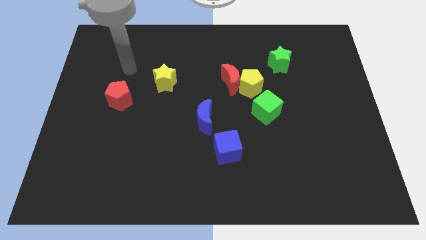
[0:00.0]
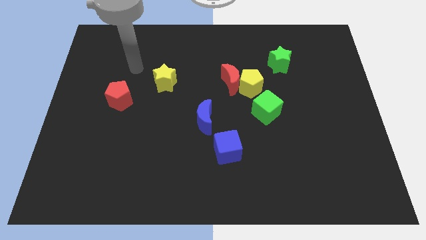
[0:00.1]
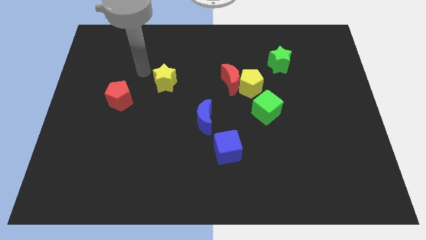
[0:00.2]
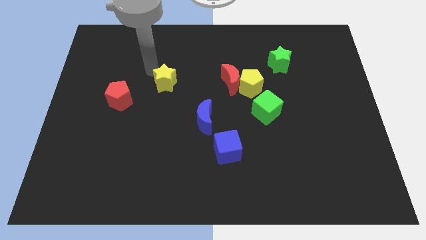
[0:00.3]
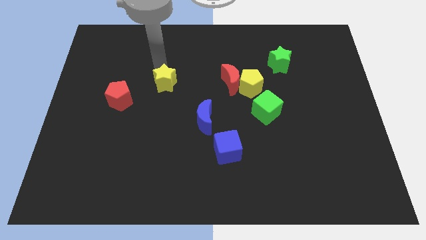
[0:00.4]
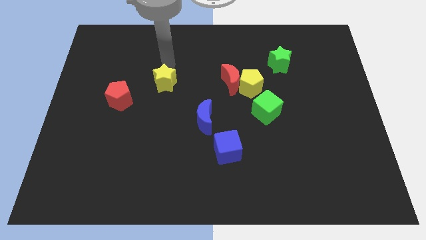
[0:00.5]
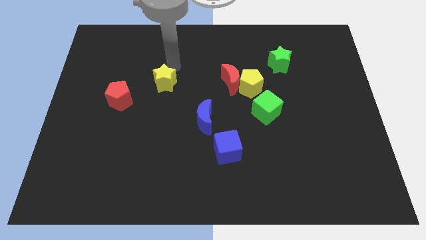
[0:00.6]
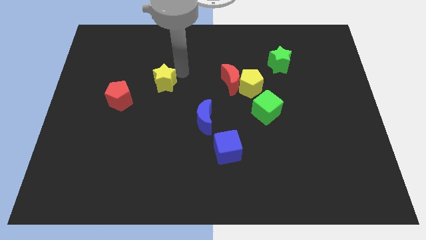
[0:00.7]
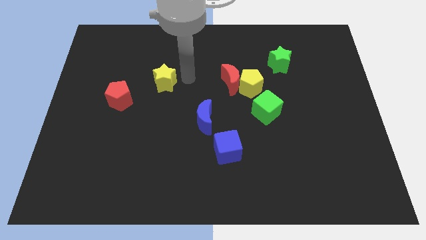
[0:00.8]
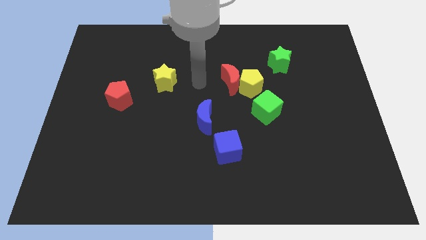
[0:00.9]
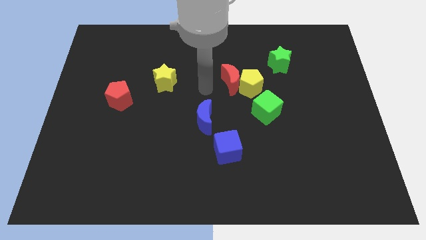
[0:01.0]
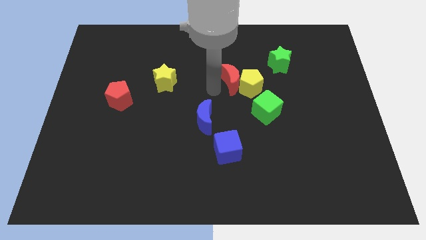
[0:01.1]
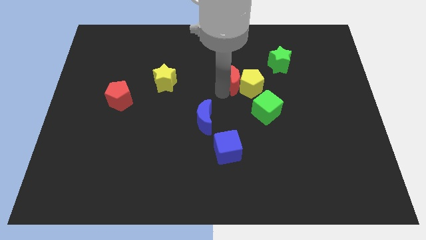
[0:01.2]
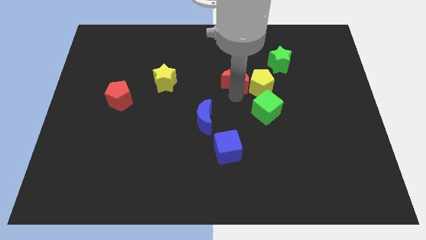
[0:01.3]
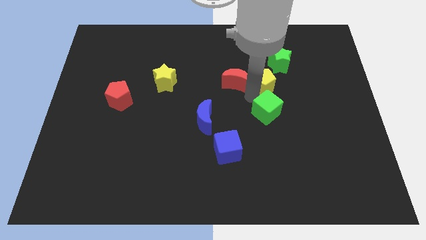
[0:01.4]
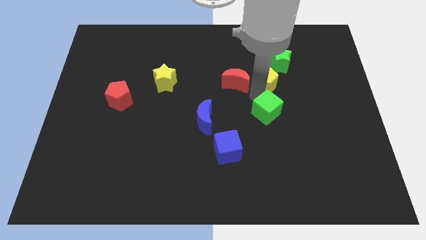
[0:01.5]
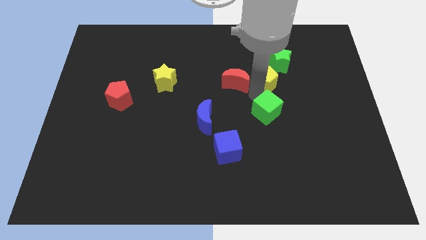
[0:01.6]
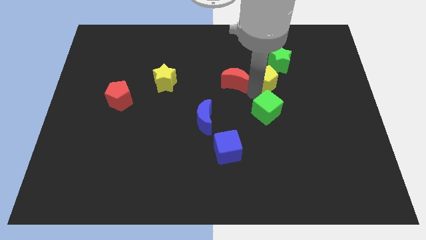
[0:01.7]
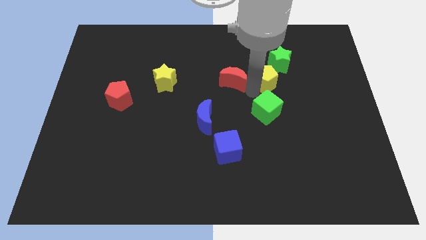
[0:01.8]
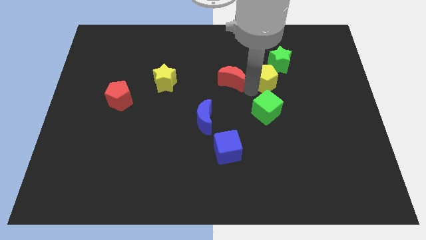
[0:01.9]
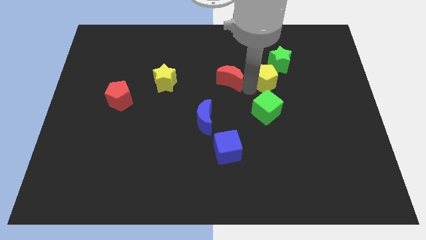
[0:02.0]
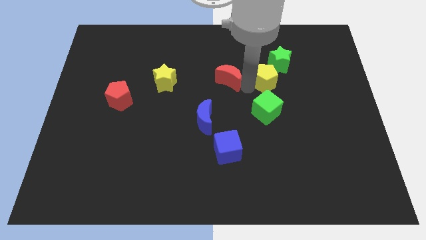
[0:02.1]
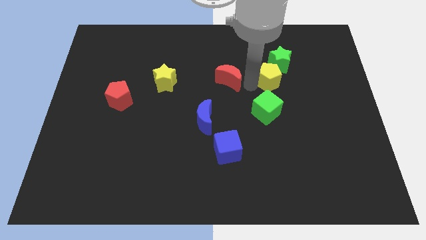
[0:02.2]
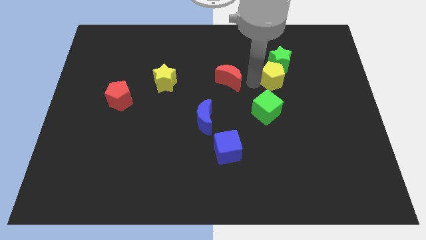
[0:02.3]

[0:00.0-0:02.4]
separate the red moon from the yellow pentagon

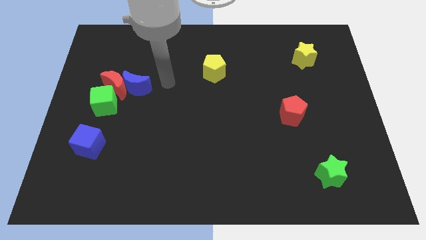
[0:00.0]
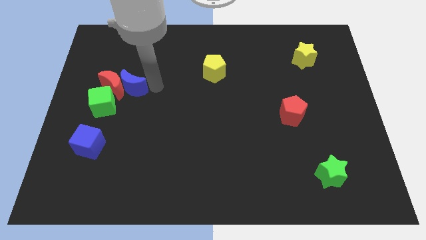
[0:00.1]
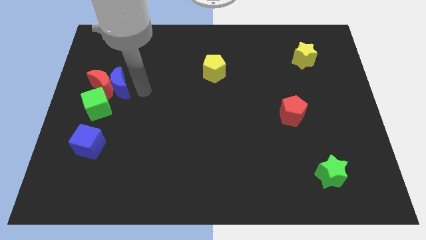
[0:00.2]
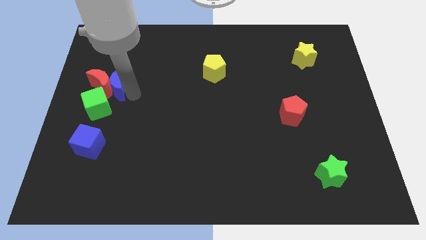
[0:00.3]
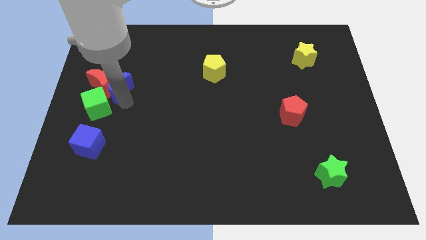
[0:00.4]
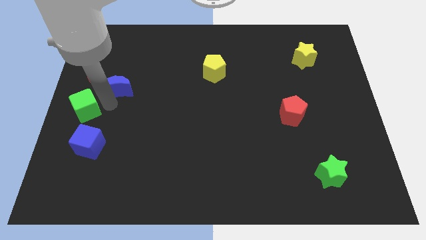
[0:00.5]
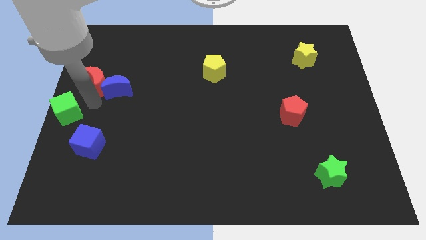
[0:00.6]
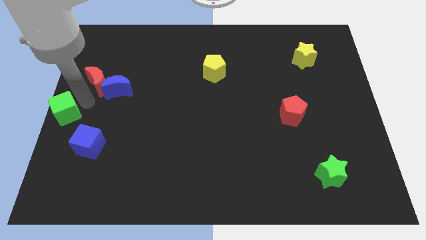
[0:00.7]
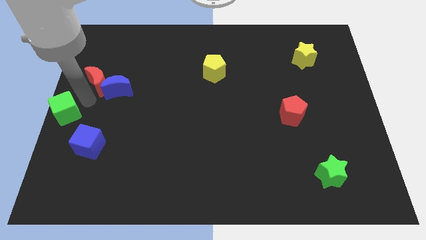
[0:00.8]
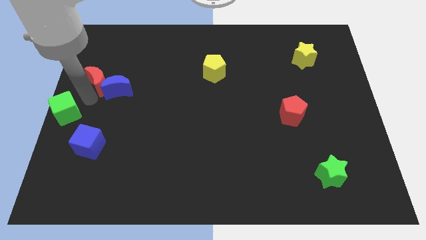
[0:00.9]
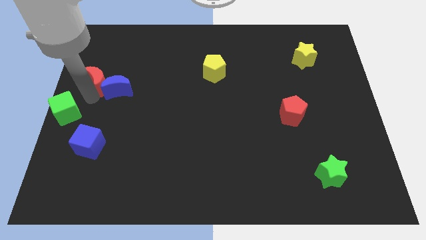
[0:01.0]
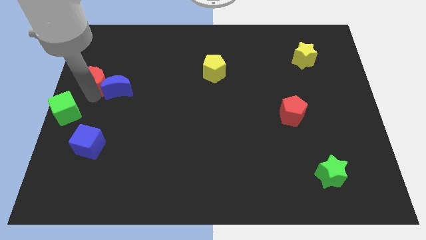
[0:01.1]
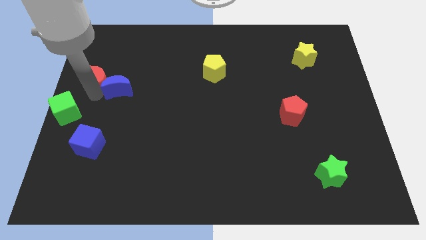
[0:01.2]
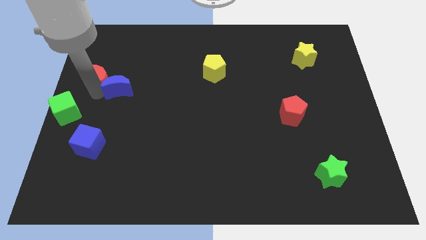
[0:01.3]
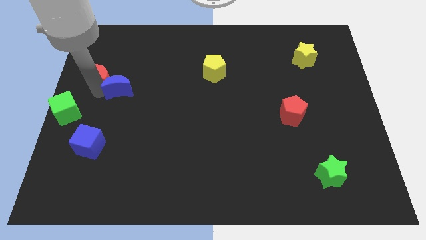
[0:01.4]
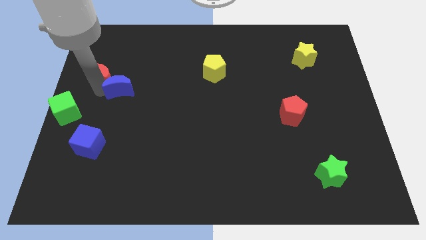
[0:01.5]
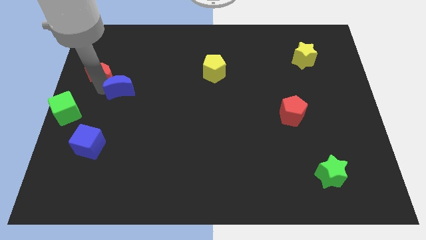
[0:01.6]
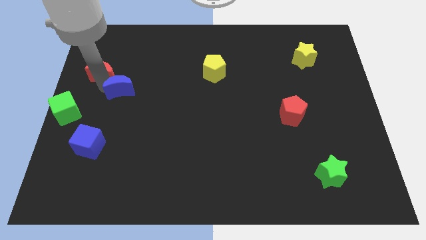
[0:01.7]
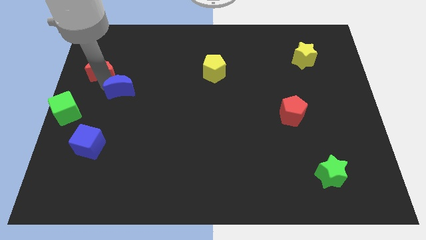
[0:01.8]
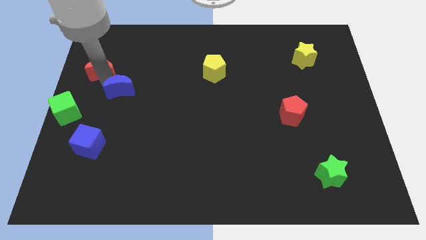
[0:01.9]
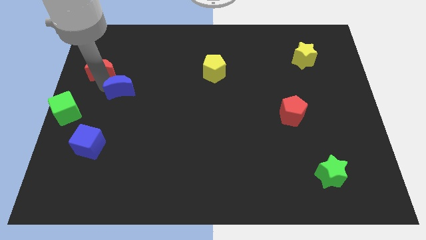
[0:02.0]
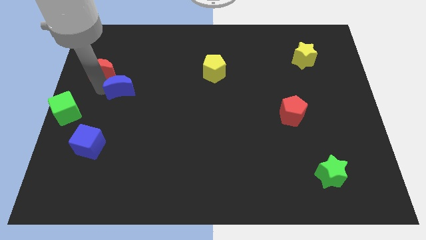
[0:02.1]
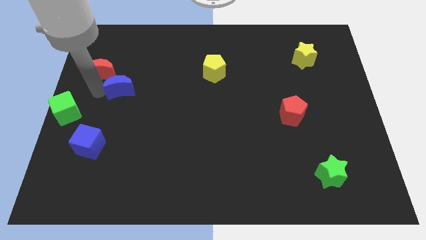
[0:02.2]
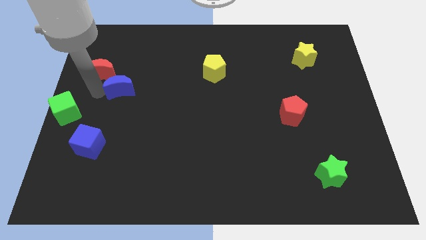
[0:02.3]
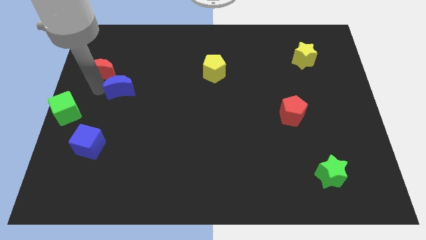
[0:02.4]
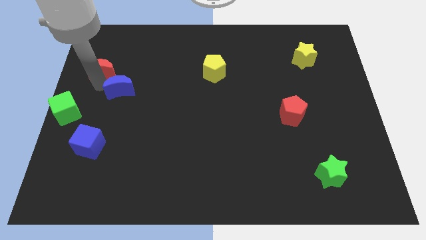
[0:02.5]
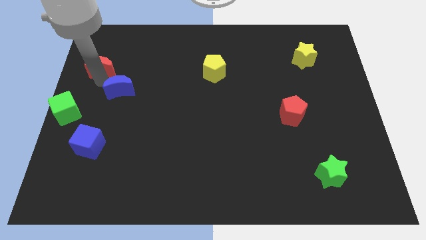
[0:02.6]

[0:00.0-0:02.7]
pull the red moon apart from the blue moon and green cube

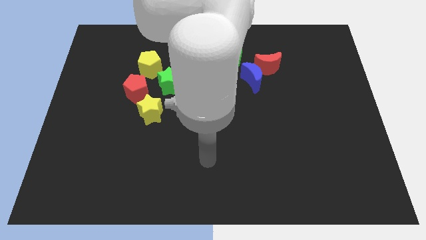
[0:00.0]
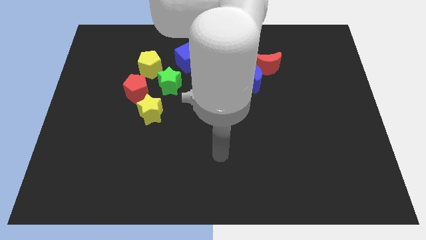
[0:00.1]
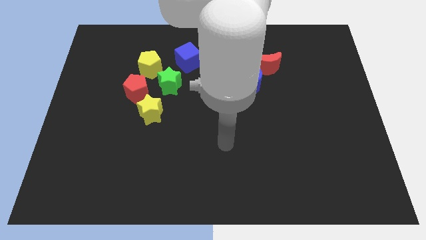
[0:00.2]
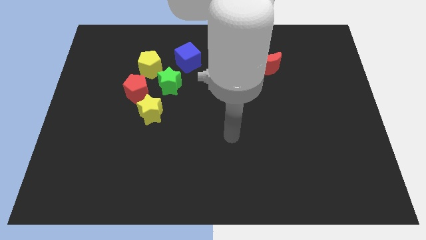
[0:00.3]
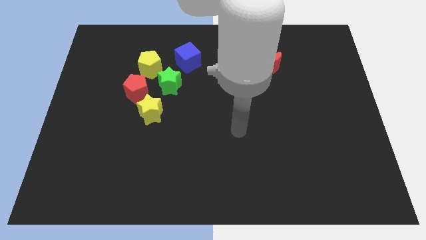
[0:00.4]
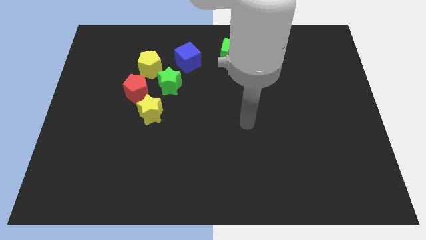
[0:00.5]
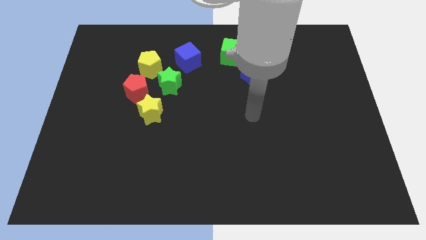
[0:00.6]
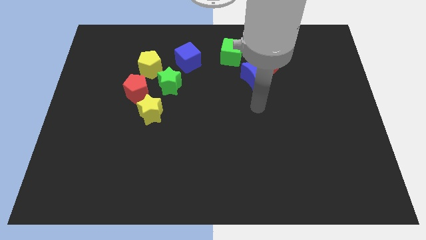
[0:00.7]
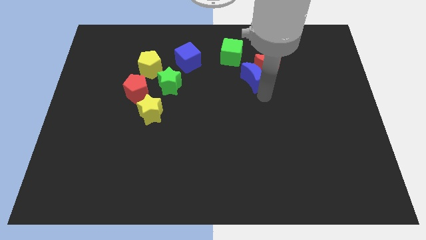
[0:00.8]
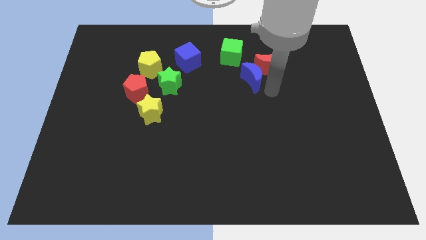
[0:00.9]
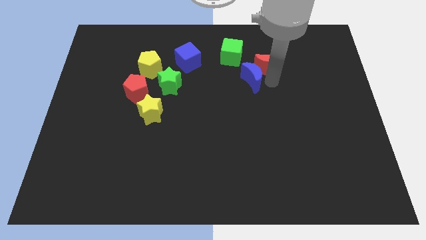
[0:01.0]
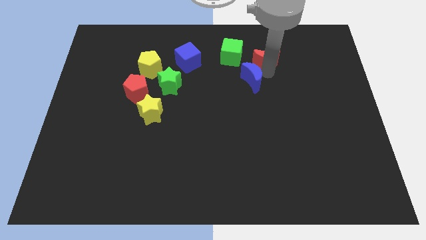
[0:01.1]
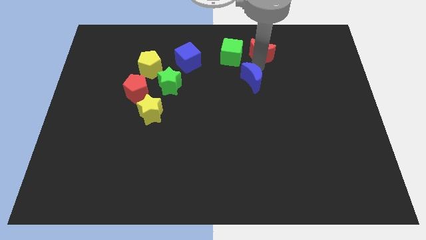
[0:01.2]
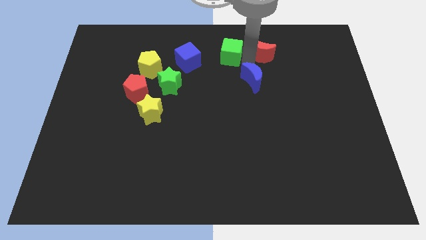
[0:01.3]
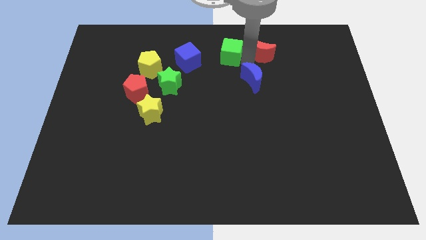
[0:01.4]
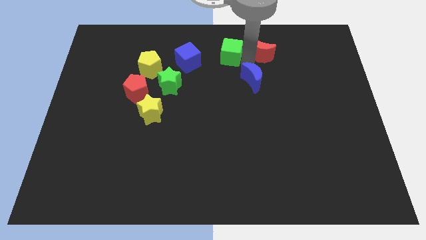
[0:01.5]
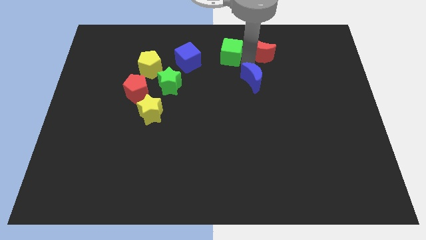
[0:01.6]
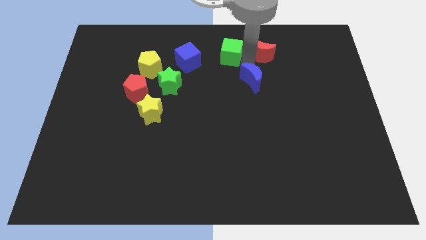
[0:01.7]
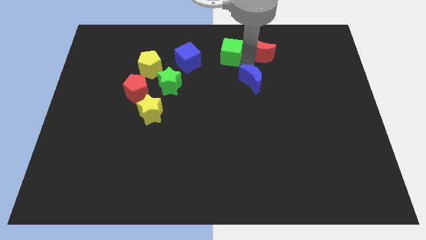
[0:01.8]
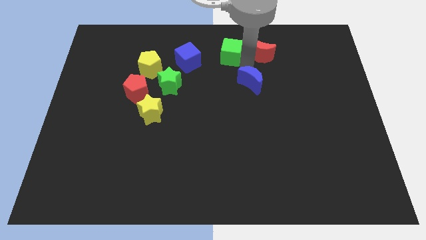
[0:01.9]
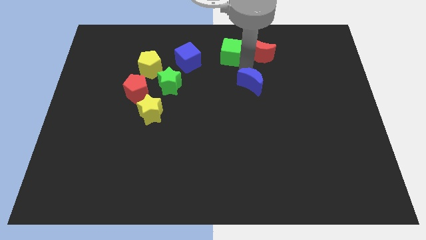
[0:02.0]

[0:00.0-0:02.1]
move the blue moon away from the red moon and green cube

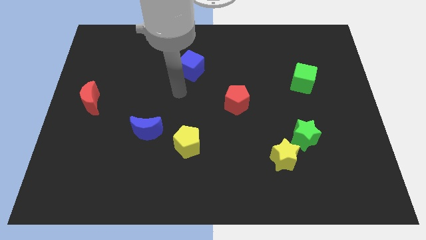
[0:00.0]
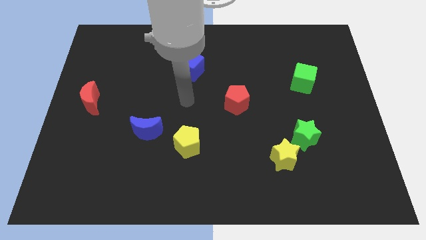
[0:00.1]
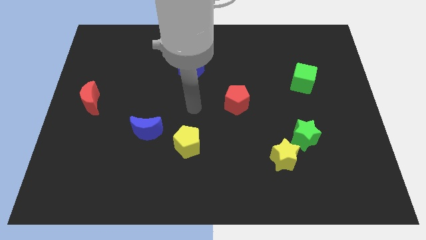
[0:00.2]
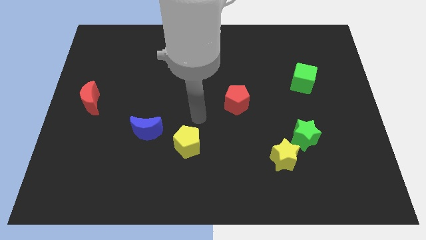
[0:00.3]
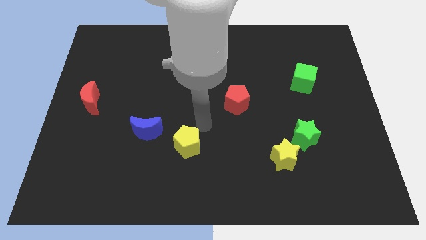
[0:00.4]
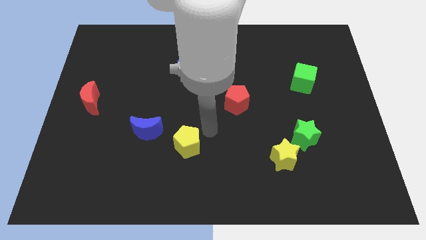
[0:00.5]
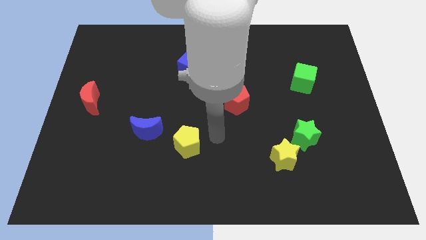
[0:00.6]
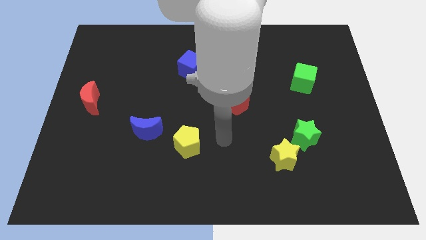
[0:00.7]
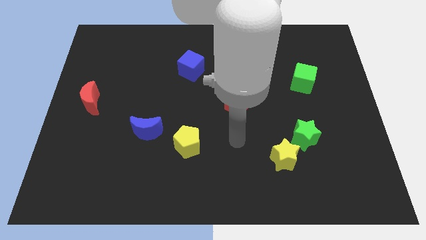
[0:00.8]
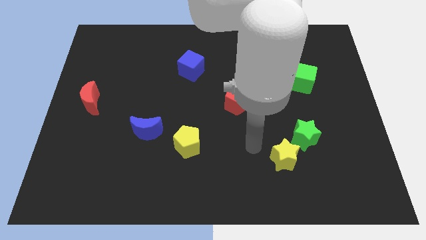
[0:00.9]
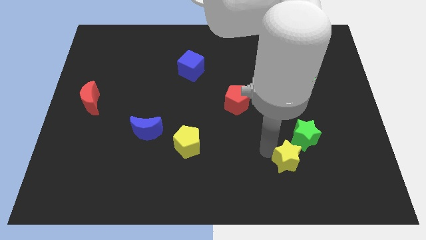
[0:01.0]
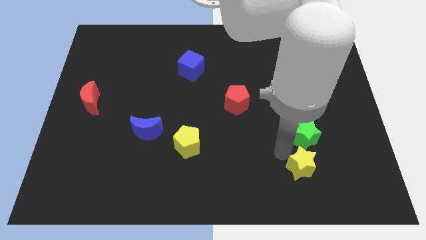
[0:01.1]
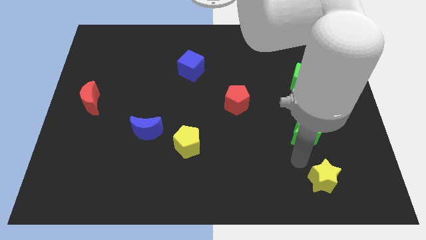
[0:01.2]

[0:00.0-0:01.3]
move the green star away from the yellow star

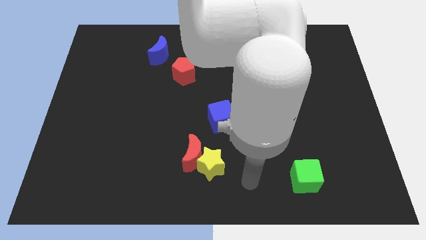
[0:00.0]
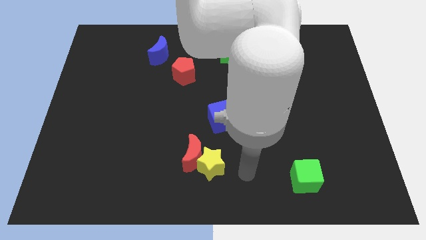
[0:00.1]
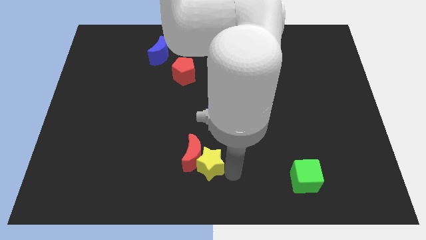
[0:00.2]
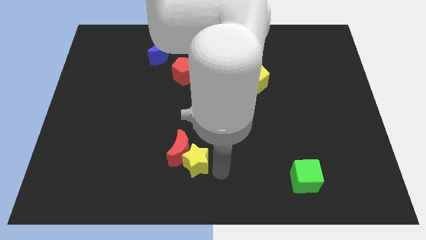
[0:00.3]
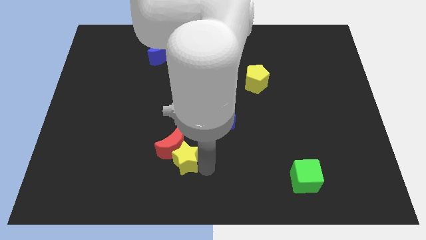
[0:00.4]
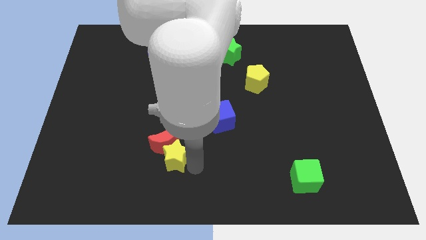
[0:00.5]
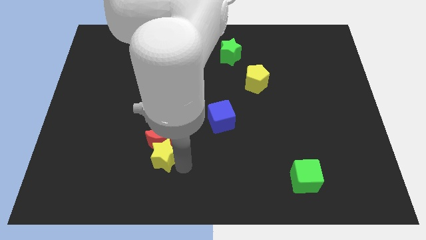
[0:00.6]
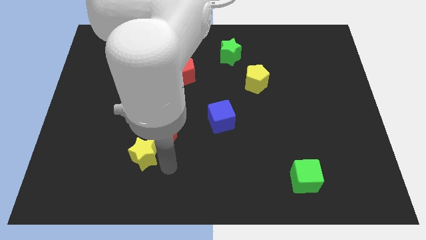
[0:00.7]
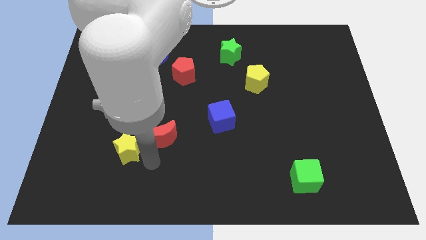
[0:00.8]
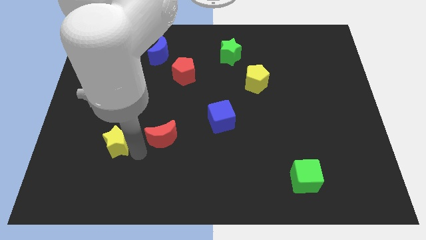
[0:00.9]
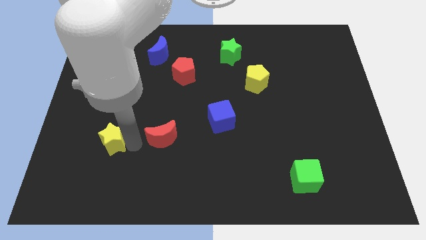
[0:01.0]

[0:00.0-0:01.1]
separate the red moon from the yellow star
